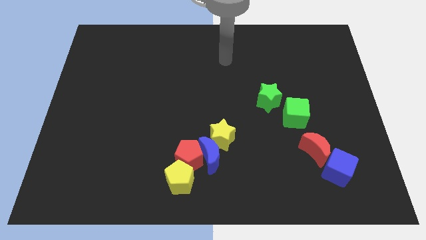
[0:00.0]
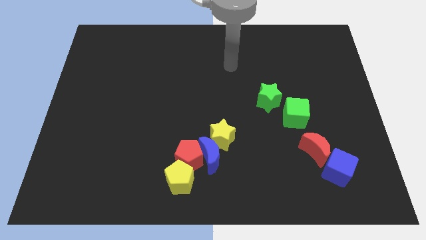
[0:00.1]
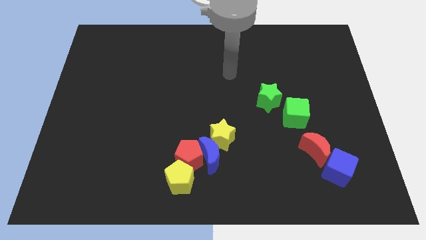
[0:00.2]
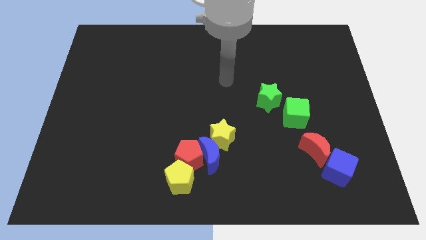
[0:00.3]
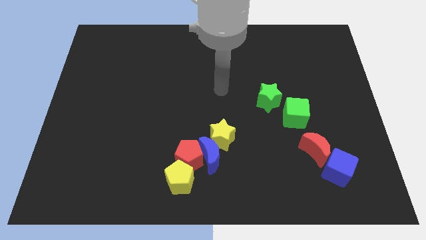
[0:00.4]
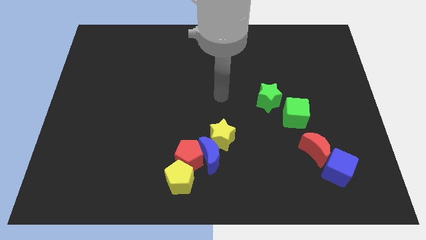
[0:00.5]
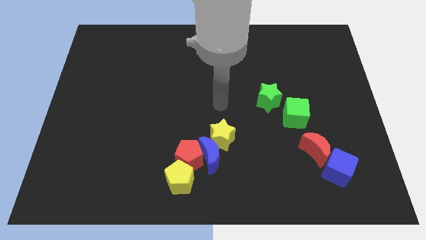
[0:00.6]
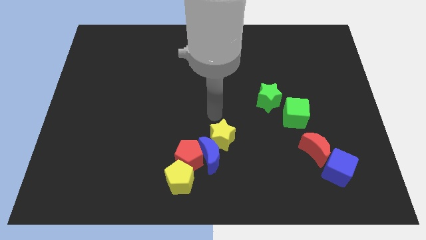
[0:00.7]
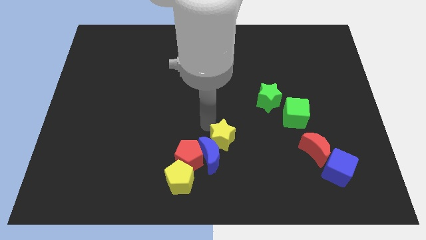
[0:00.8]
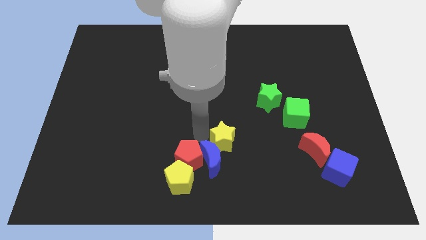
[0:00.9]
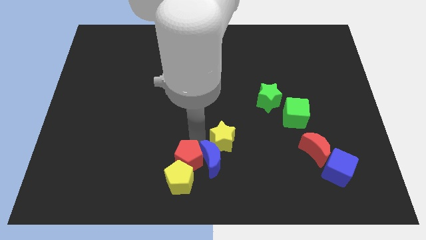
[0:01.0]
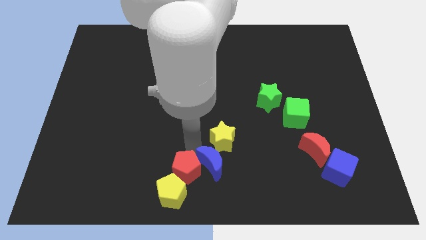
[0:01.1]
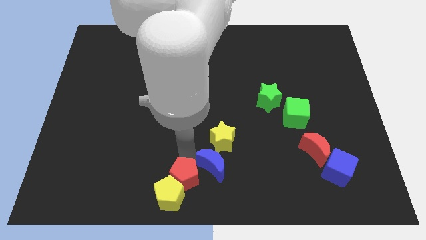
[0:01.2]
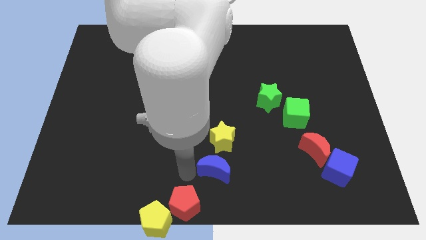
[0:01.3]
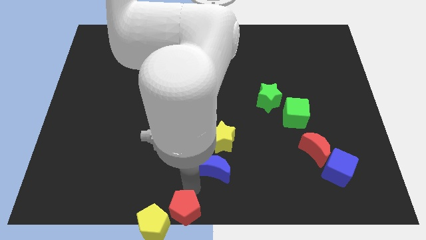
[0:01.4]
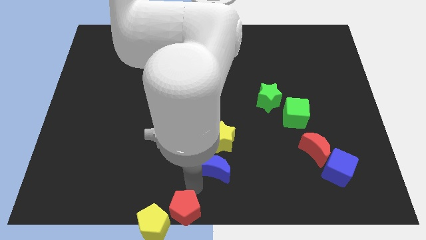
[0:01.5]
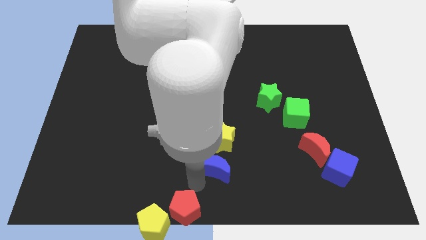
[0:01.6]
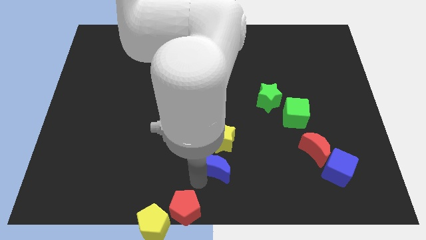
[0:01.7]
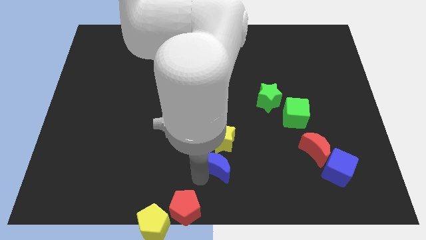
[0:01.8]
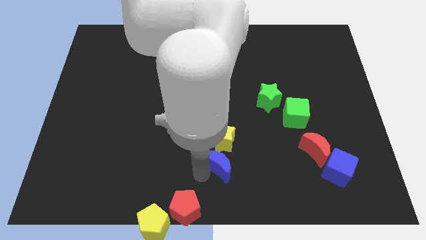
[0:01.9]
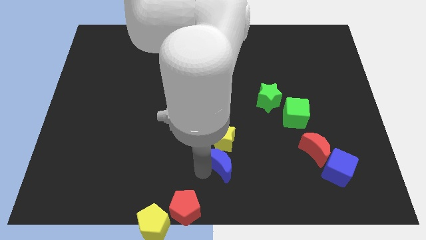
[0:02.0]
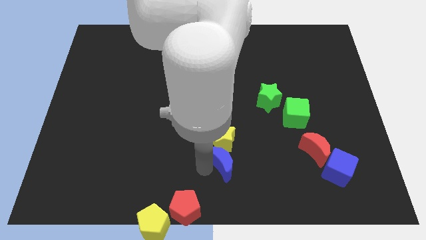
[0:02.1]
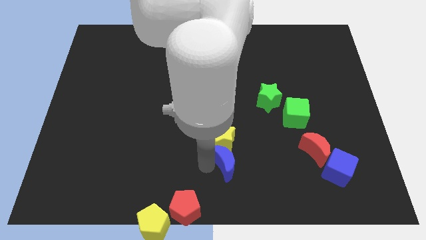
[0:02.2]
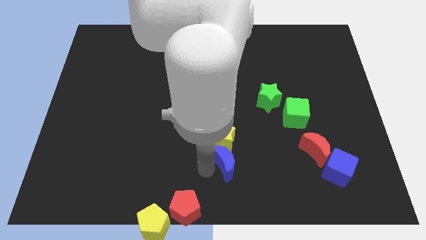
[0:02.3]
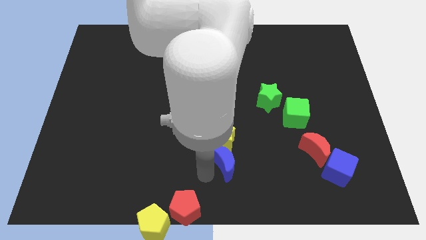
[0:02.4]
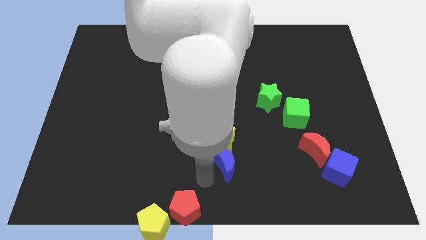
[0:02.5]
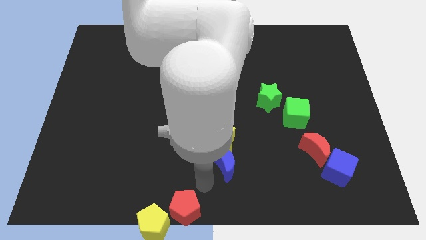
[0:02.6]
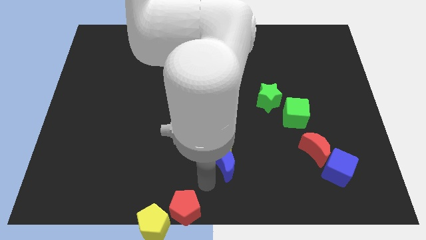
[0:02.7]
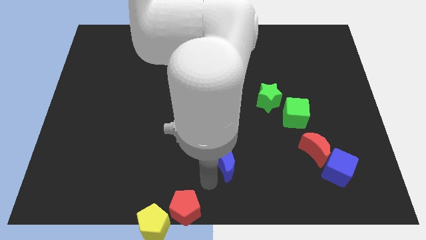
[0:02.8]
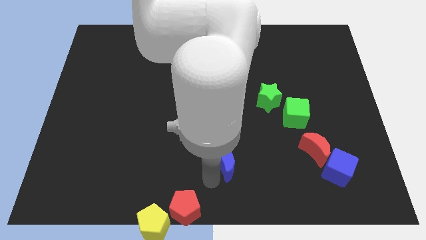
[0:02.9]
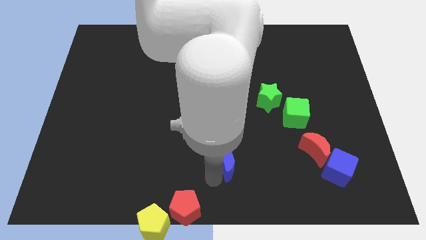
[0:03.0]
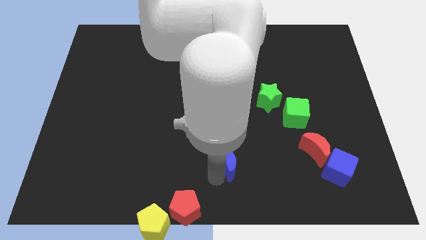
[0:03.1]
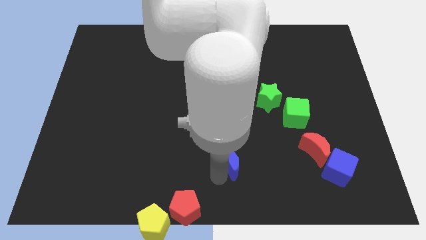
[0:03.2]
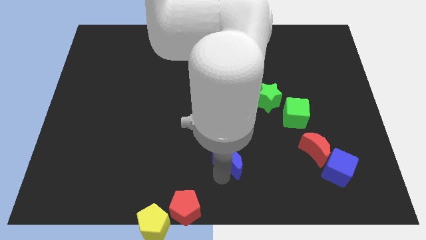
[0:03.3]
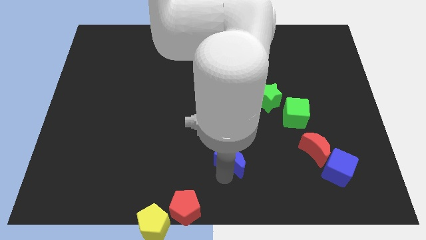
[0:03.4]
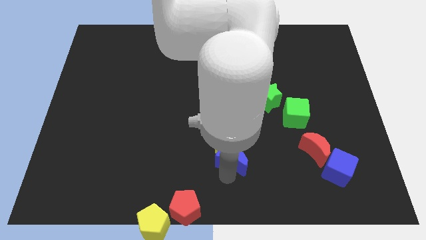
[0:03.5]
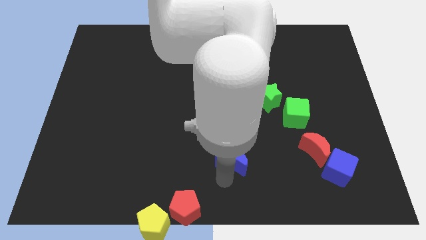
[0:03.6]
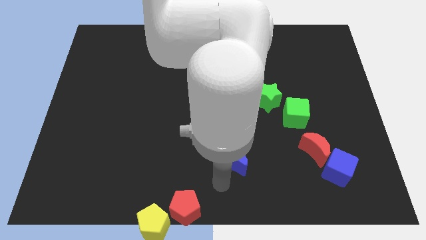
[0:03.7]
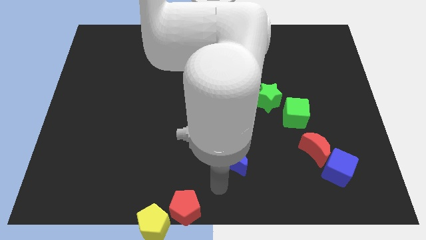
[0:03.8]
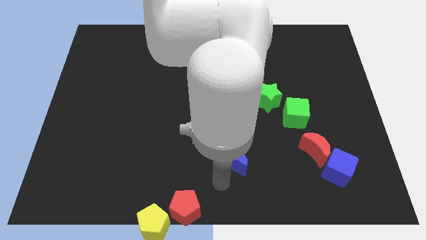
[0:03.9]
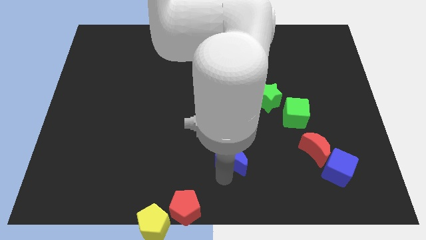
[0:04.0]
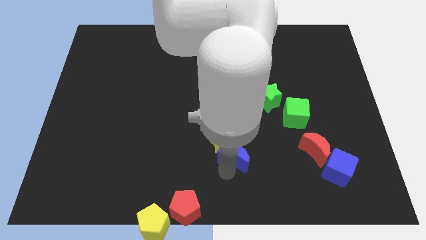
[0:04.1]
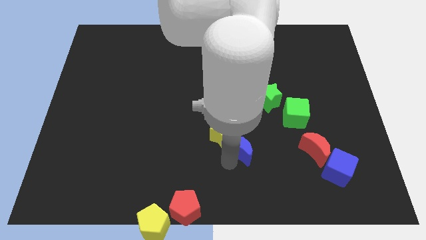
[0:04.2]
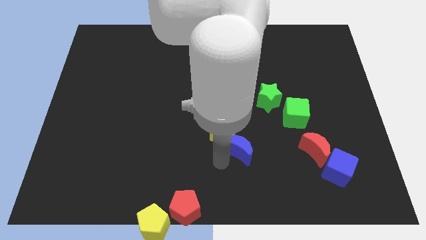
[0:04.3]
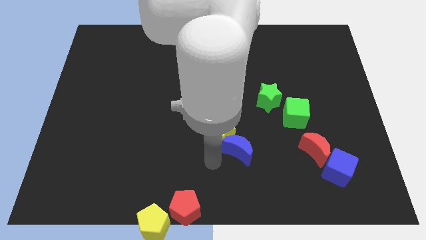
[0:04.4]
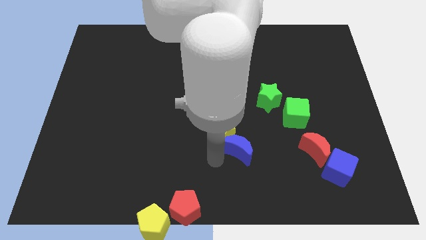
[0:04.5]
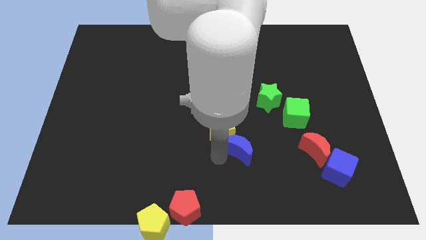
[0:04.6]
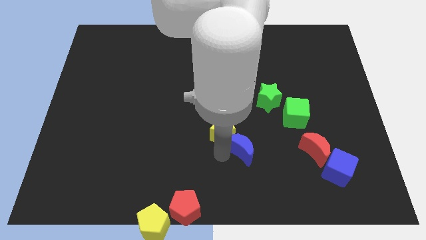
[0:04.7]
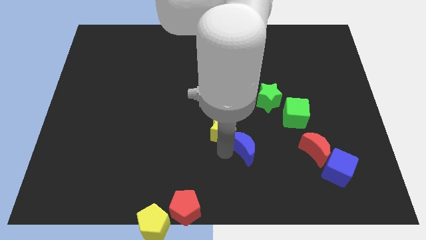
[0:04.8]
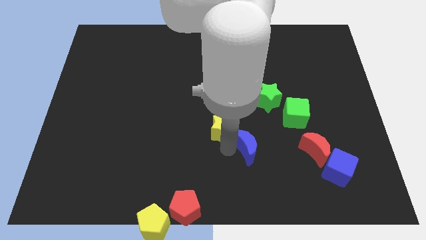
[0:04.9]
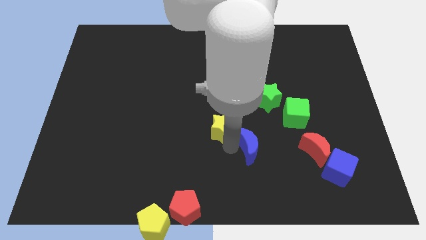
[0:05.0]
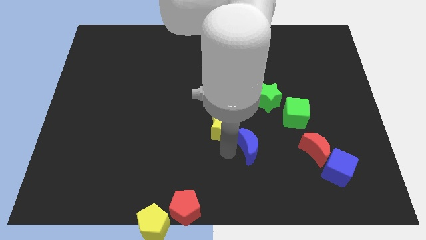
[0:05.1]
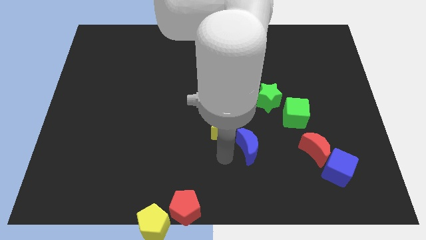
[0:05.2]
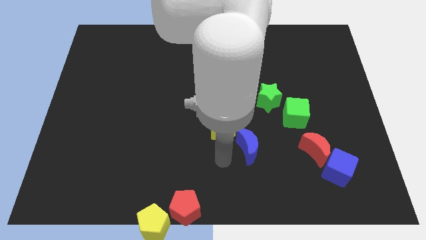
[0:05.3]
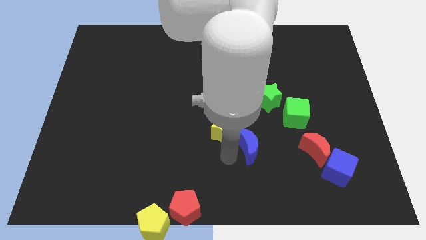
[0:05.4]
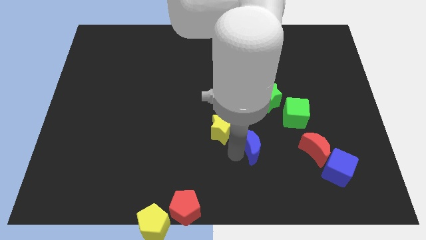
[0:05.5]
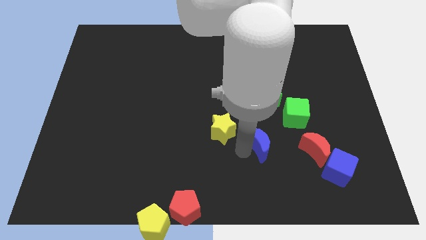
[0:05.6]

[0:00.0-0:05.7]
move the blue moon to the bottom left of the green cube

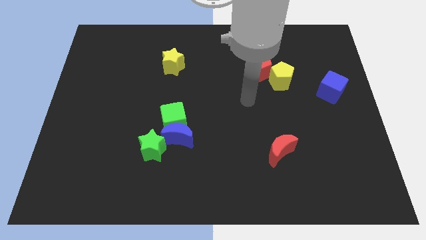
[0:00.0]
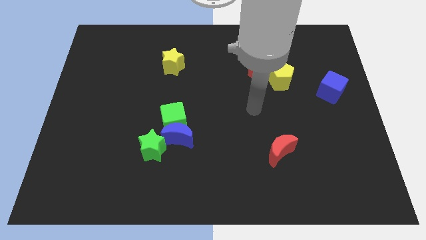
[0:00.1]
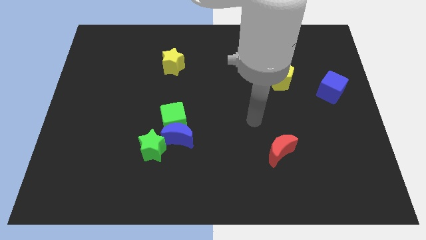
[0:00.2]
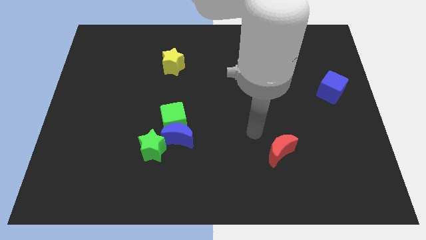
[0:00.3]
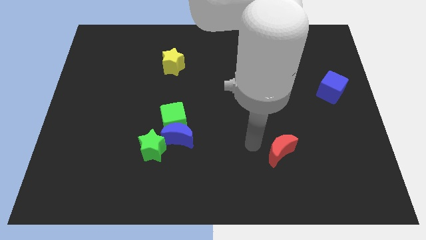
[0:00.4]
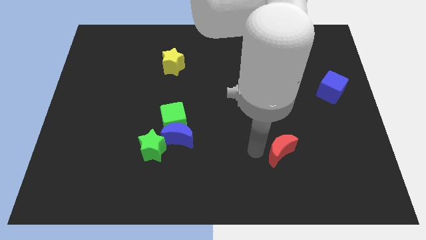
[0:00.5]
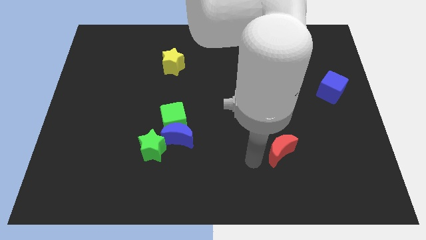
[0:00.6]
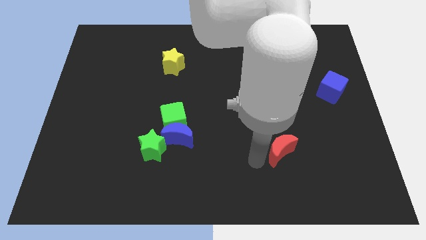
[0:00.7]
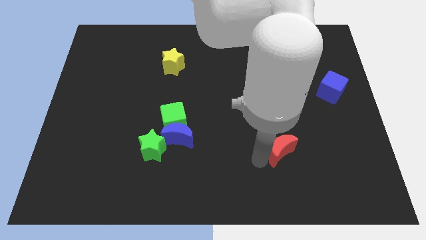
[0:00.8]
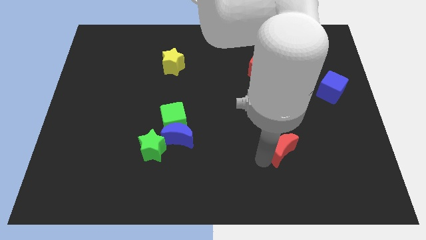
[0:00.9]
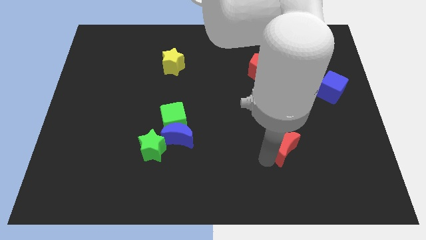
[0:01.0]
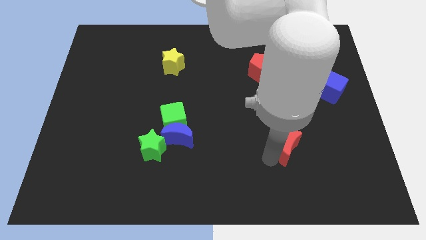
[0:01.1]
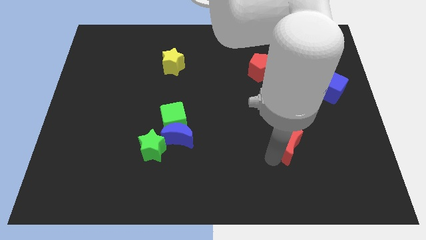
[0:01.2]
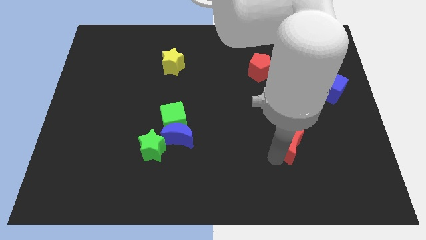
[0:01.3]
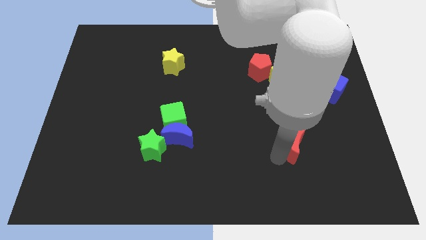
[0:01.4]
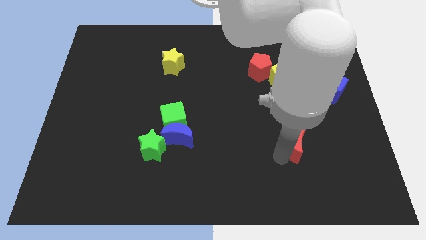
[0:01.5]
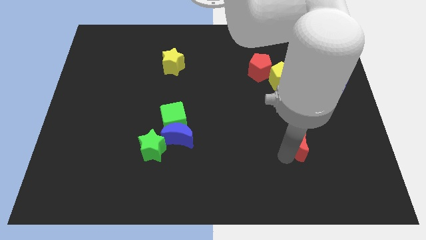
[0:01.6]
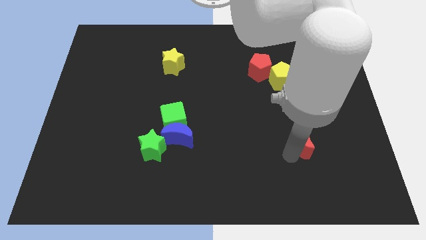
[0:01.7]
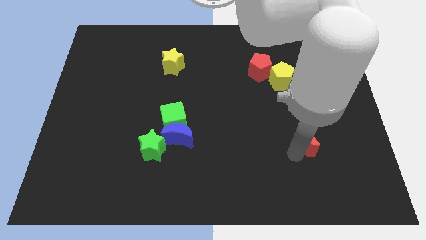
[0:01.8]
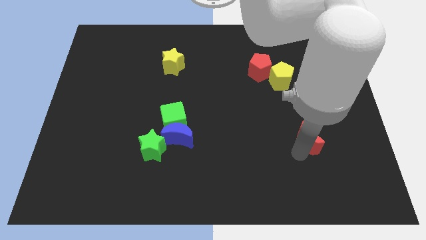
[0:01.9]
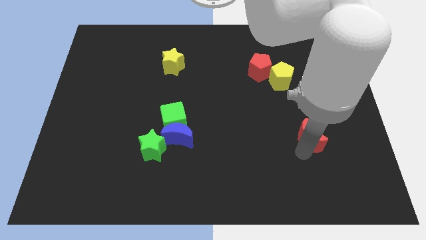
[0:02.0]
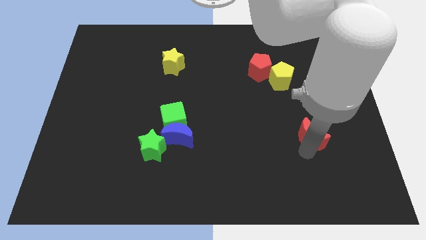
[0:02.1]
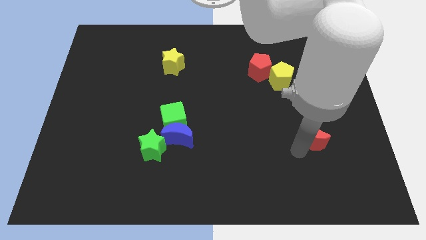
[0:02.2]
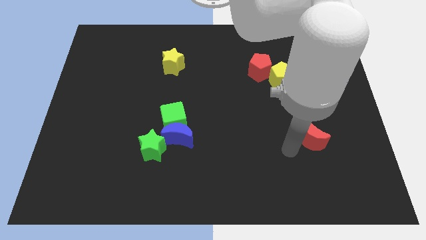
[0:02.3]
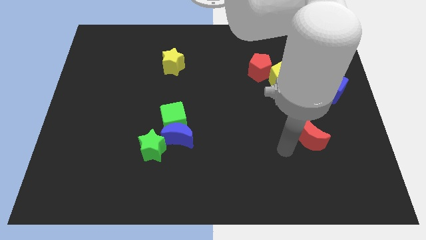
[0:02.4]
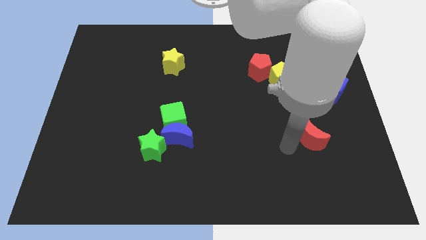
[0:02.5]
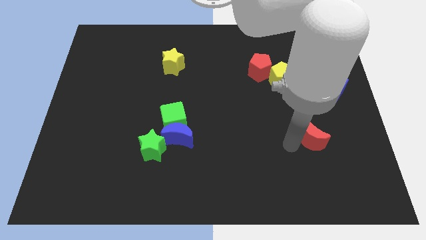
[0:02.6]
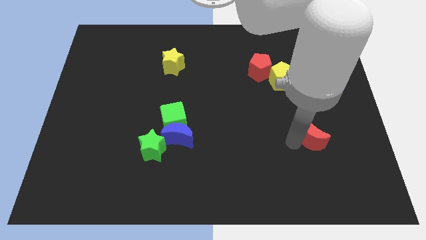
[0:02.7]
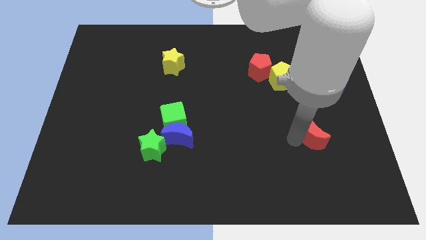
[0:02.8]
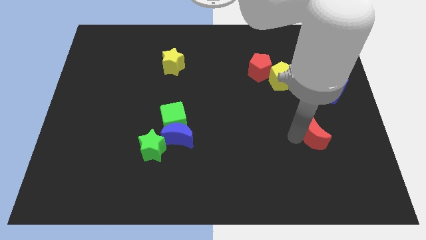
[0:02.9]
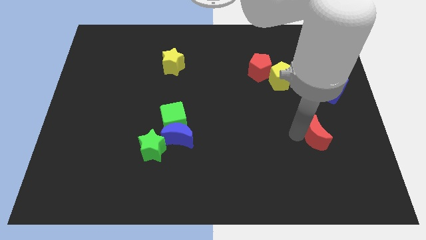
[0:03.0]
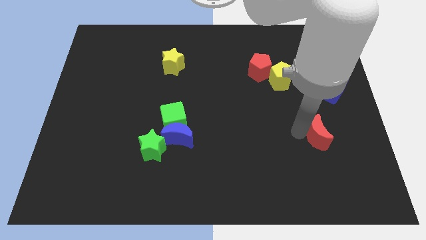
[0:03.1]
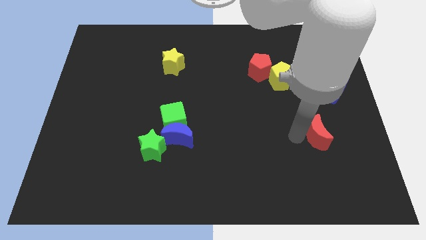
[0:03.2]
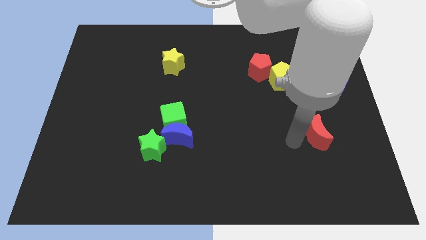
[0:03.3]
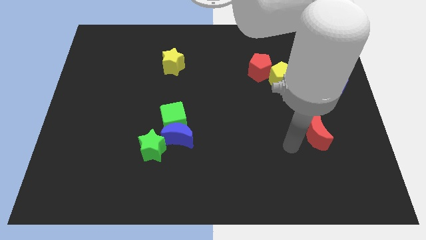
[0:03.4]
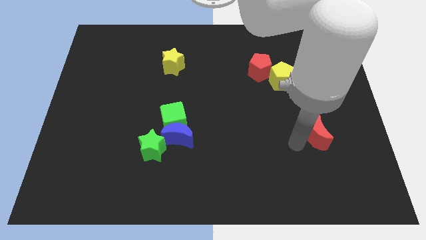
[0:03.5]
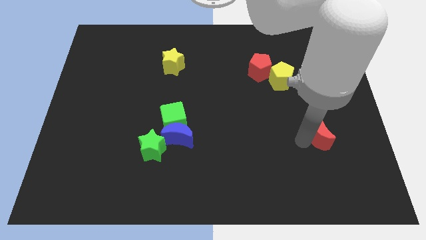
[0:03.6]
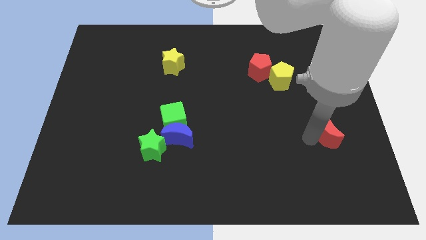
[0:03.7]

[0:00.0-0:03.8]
push the red moon below the blue cube
